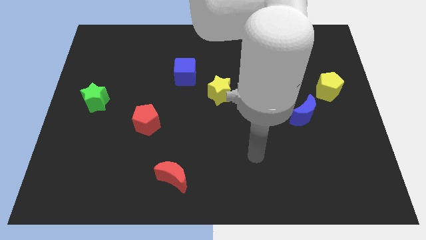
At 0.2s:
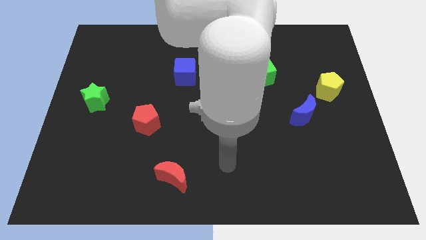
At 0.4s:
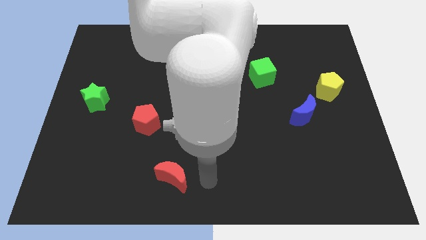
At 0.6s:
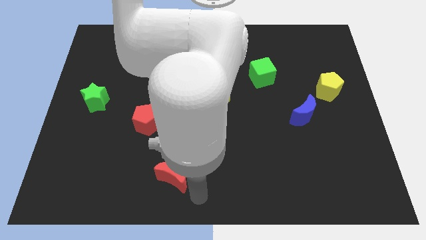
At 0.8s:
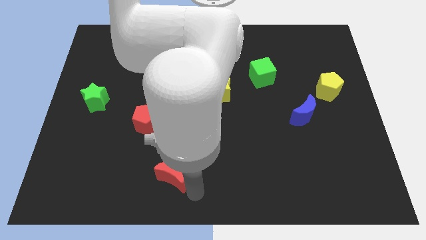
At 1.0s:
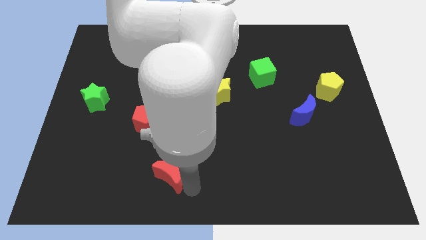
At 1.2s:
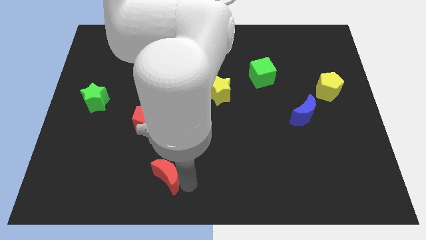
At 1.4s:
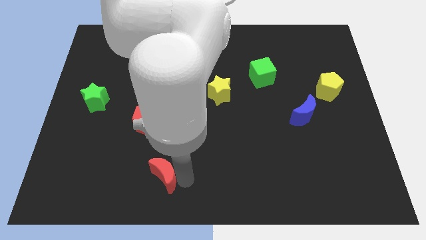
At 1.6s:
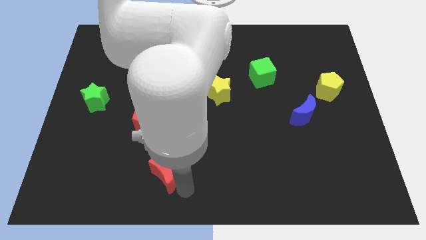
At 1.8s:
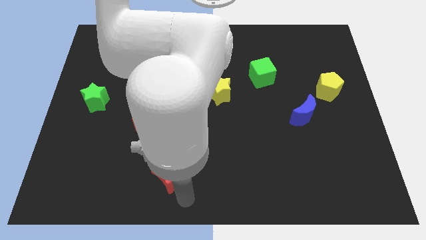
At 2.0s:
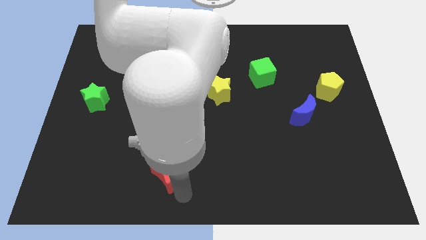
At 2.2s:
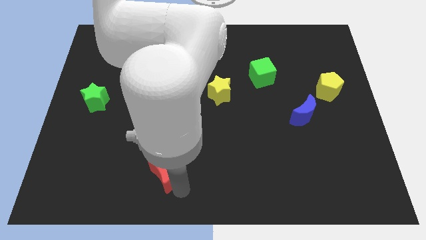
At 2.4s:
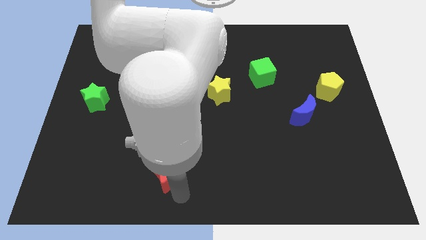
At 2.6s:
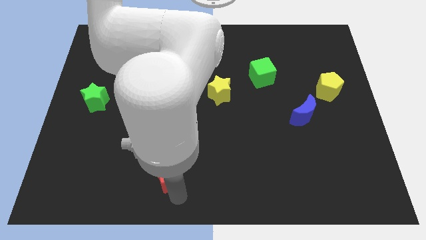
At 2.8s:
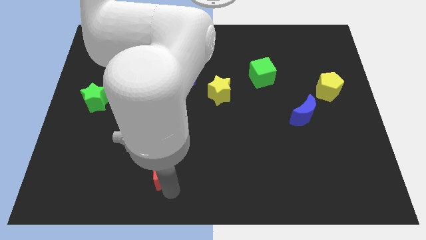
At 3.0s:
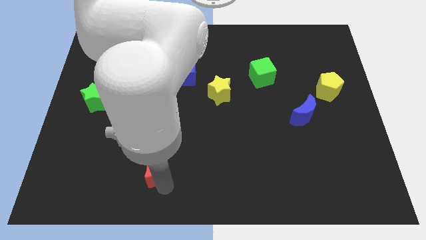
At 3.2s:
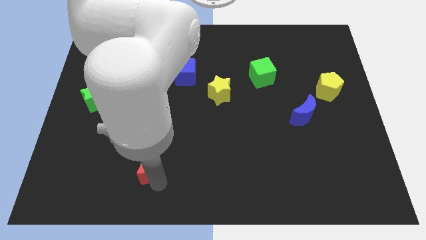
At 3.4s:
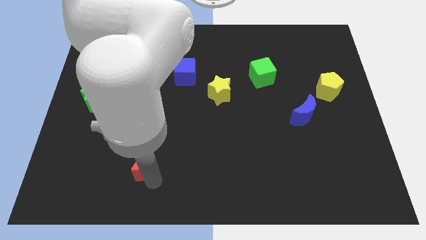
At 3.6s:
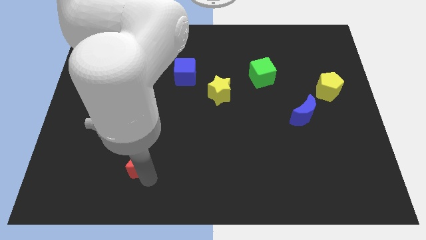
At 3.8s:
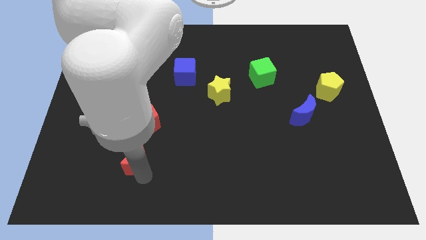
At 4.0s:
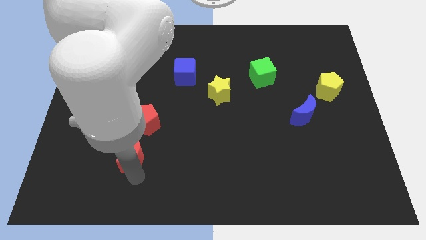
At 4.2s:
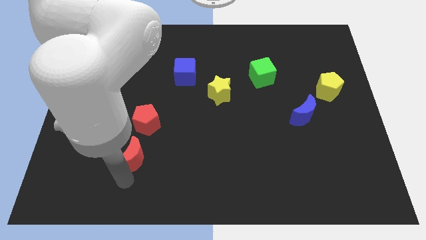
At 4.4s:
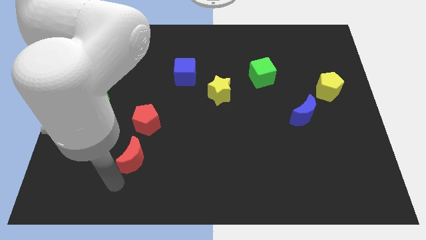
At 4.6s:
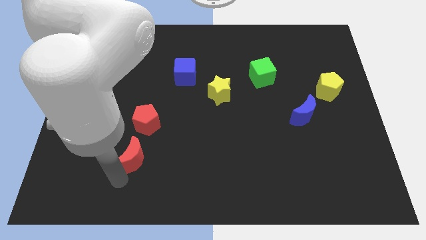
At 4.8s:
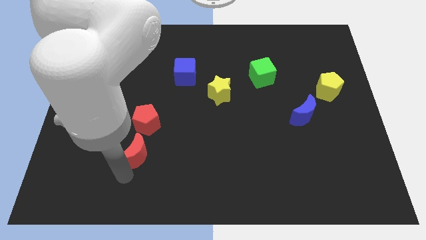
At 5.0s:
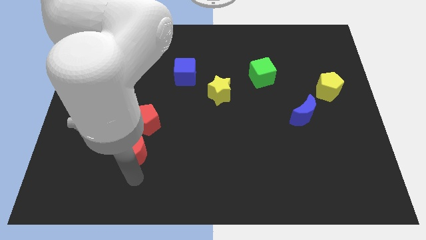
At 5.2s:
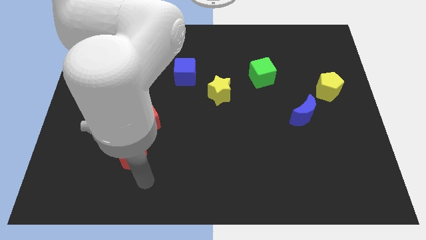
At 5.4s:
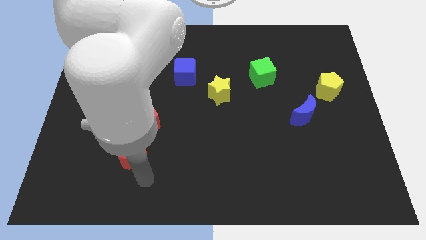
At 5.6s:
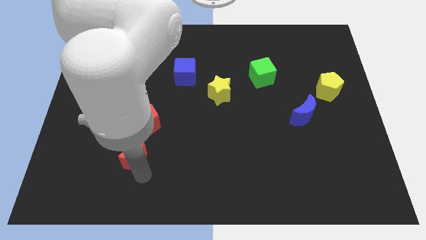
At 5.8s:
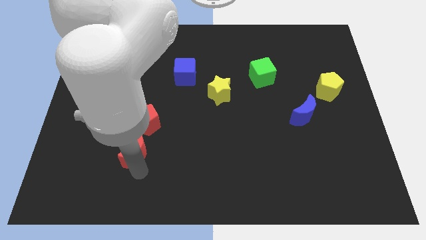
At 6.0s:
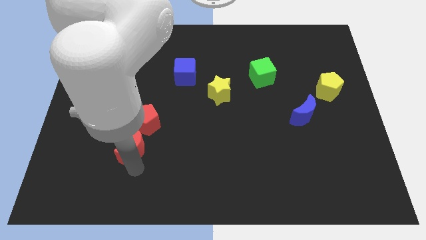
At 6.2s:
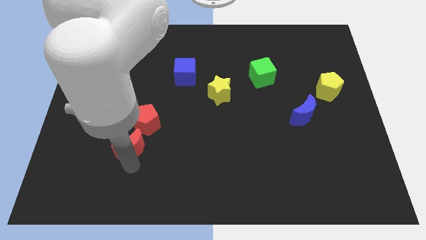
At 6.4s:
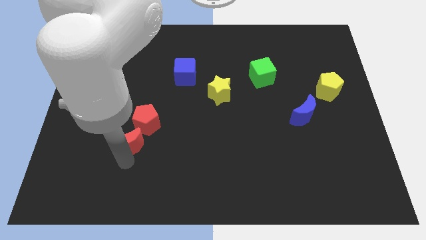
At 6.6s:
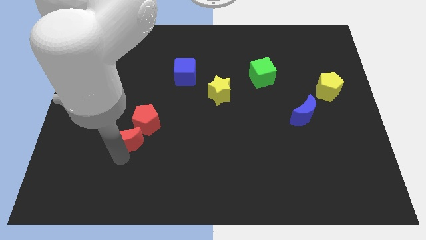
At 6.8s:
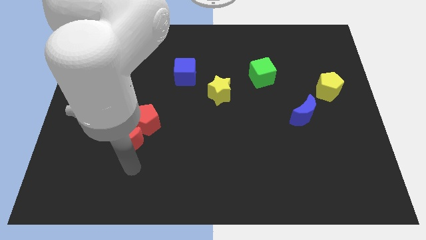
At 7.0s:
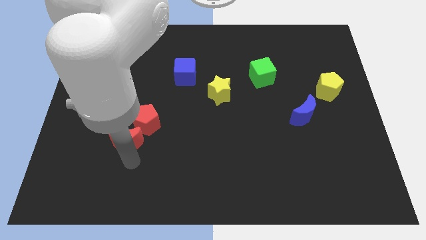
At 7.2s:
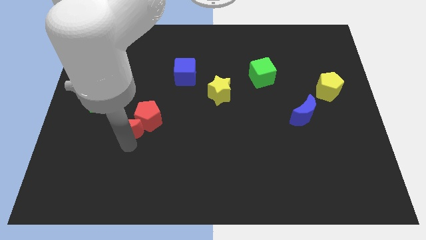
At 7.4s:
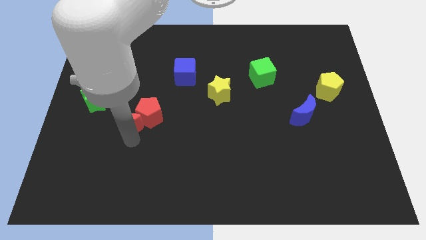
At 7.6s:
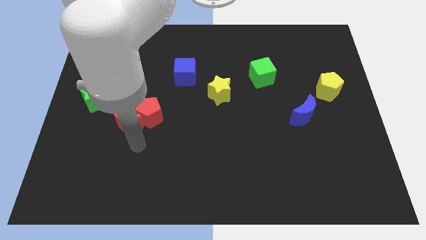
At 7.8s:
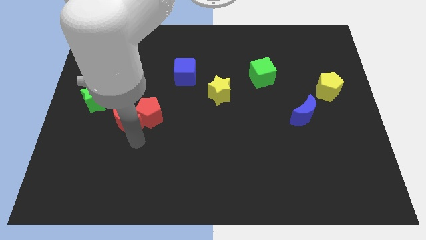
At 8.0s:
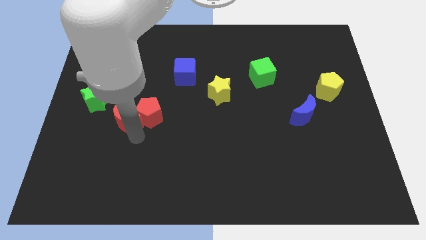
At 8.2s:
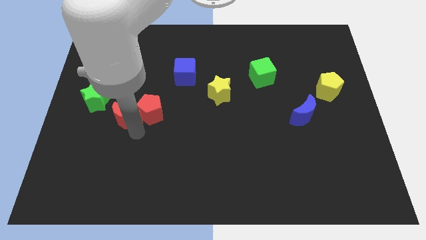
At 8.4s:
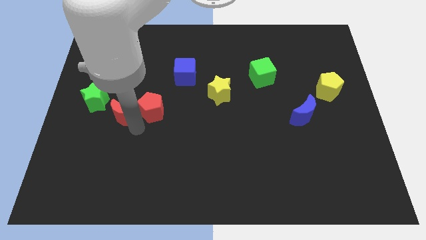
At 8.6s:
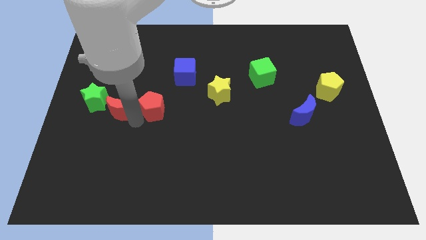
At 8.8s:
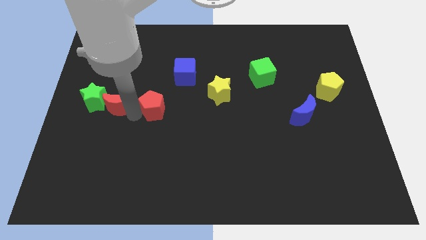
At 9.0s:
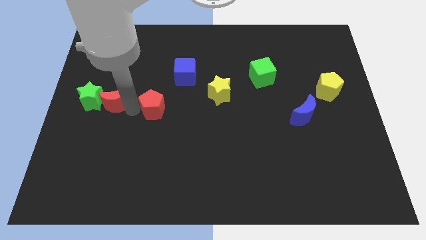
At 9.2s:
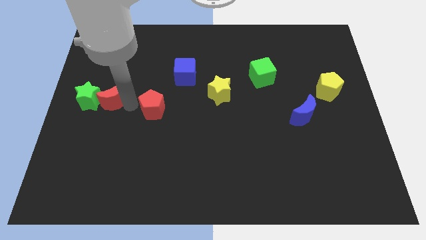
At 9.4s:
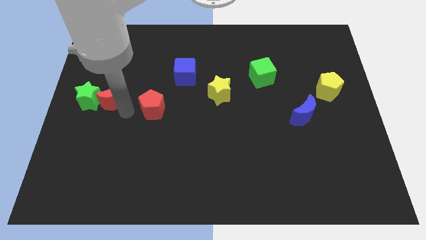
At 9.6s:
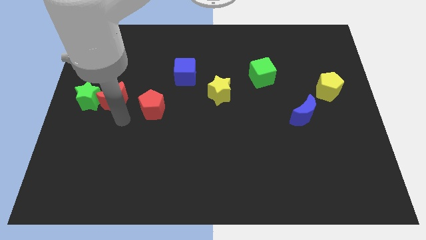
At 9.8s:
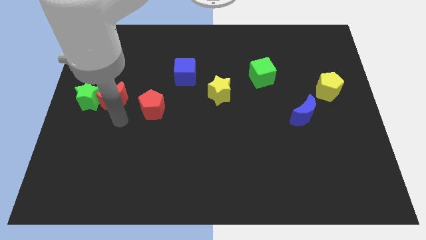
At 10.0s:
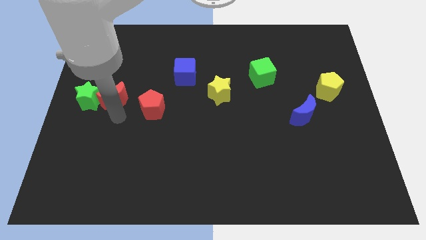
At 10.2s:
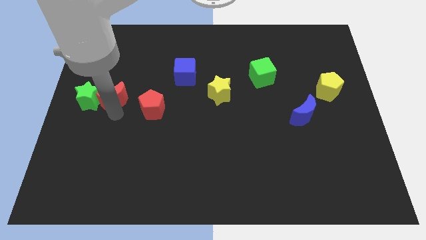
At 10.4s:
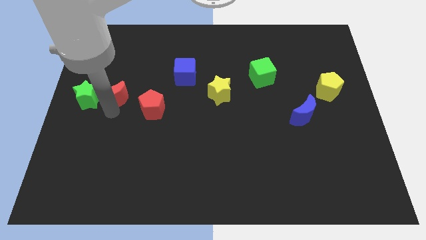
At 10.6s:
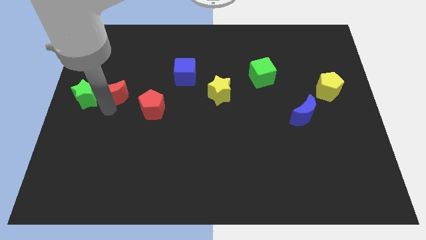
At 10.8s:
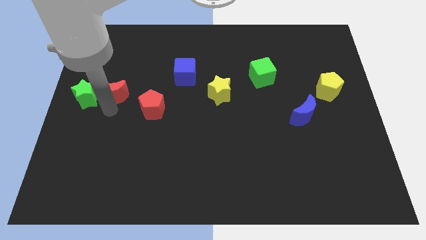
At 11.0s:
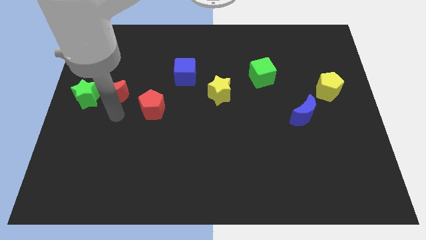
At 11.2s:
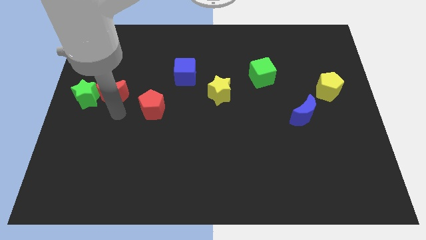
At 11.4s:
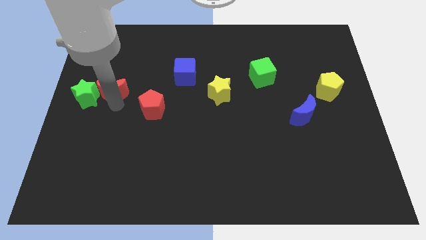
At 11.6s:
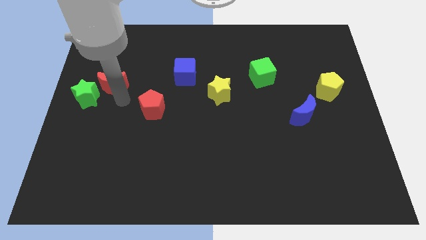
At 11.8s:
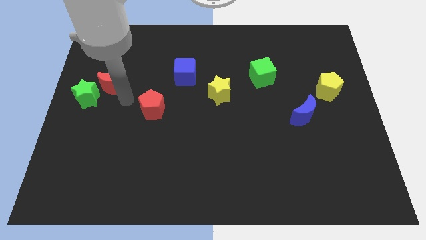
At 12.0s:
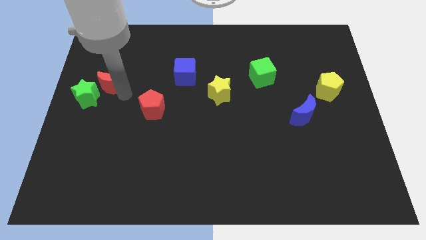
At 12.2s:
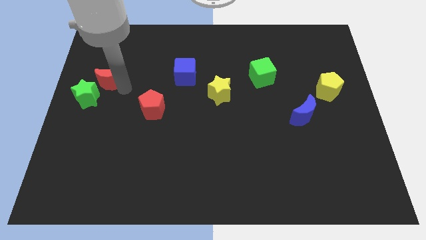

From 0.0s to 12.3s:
put the red moon to the top of the green star

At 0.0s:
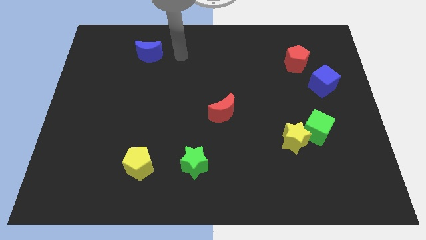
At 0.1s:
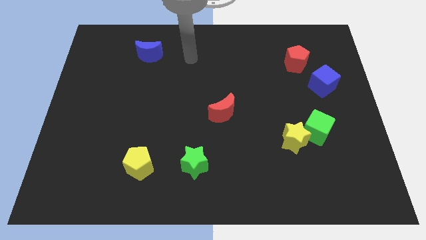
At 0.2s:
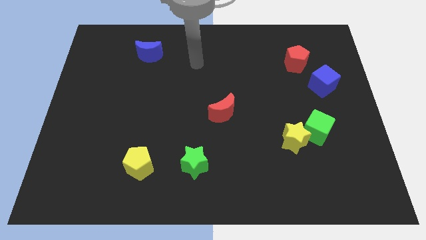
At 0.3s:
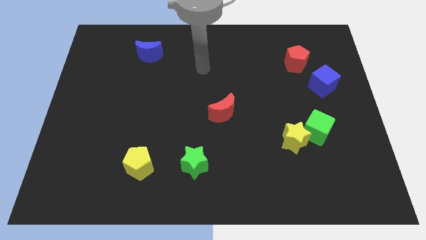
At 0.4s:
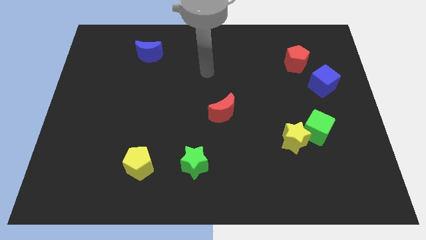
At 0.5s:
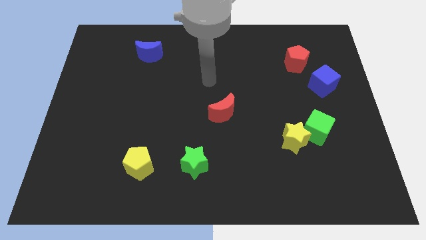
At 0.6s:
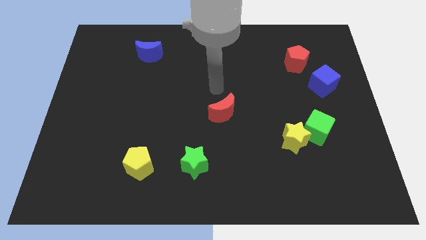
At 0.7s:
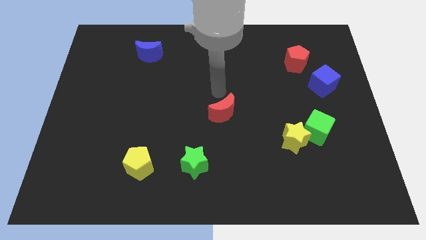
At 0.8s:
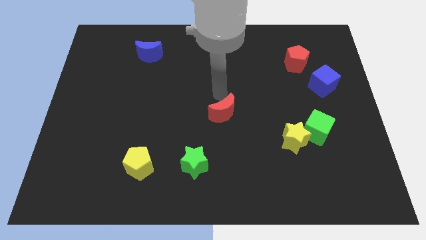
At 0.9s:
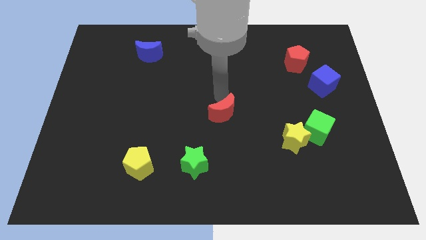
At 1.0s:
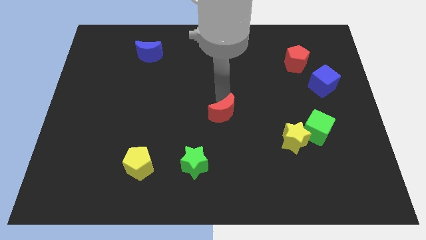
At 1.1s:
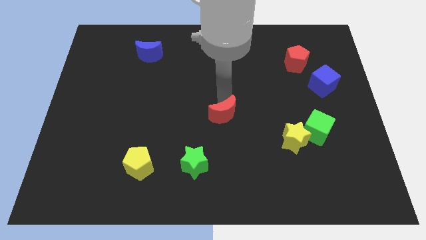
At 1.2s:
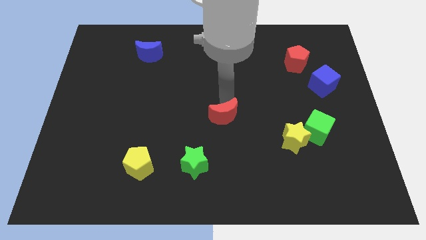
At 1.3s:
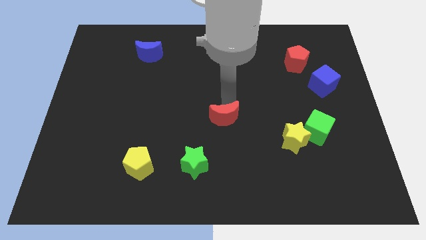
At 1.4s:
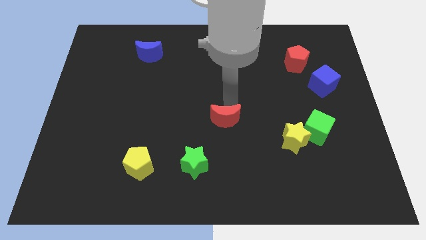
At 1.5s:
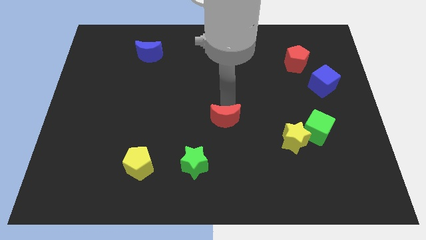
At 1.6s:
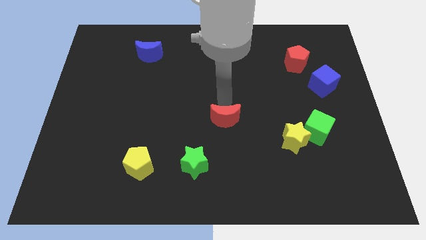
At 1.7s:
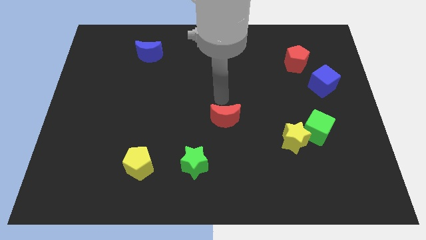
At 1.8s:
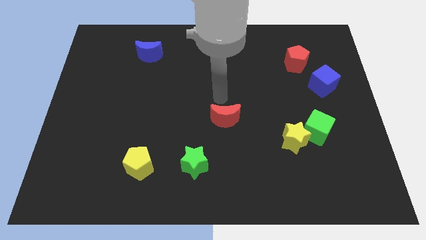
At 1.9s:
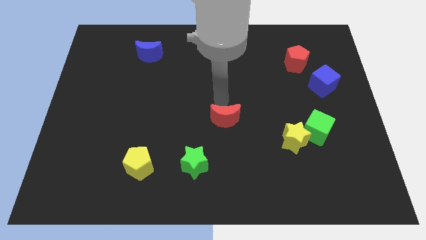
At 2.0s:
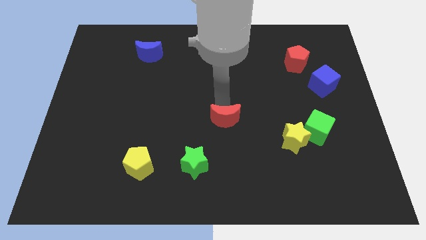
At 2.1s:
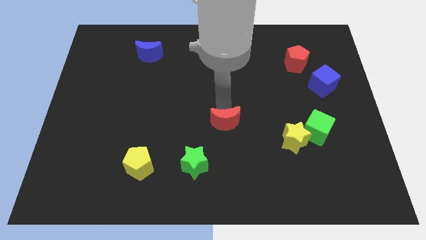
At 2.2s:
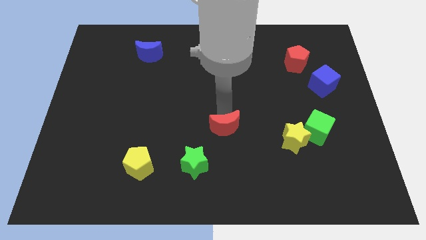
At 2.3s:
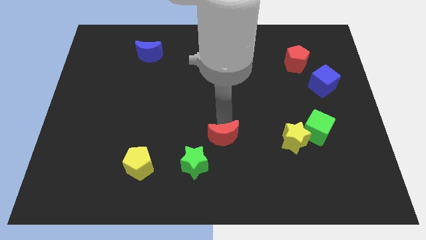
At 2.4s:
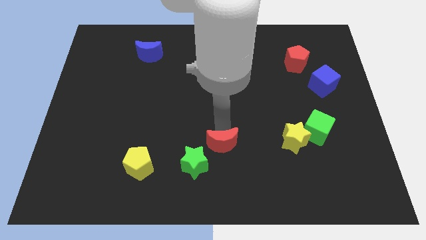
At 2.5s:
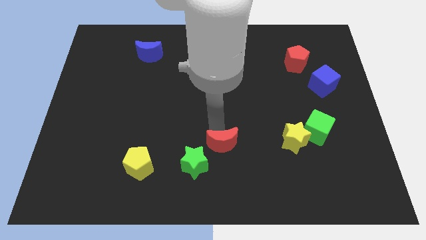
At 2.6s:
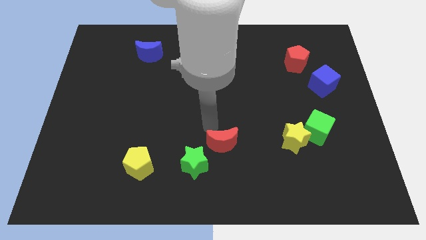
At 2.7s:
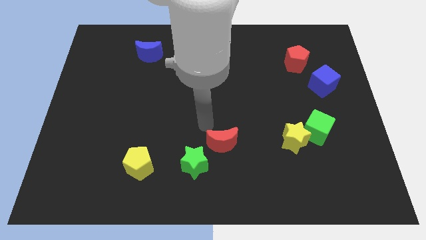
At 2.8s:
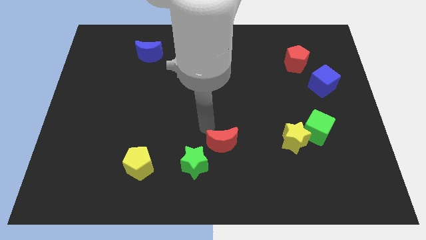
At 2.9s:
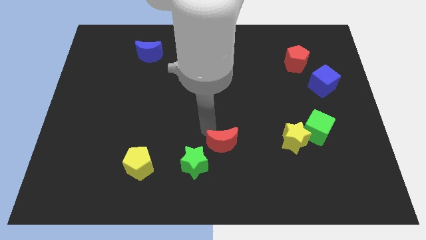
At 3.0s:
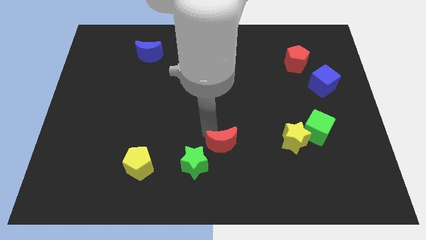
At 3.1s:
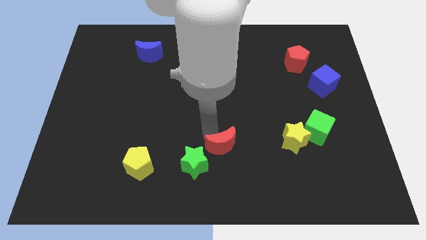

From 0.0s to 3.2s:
push the red moon to the right of the green star
